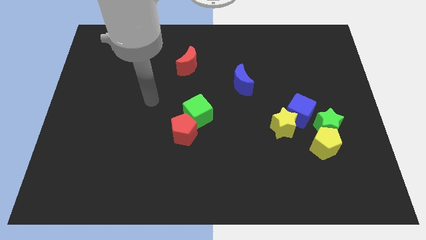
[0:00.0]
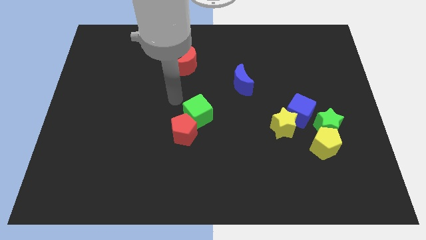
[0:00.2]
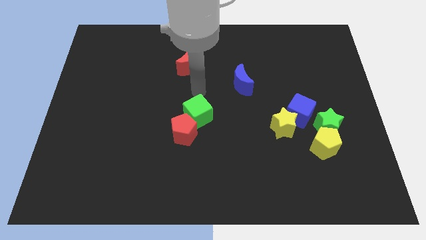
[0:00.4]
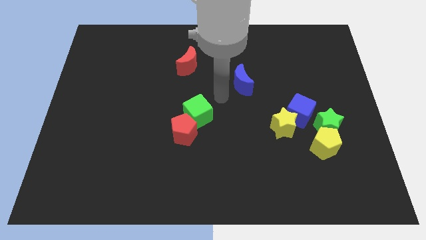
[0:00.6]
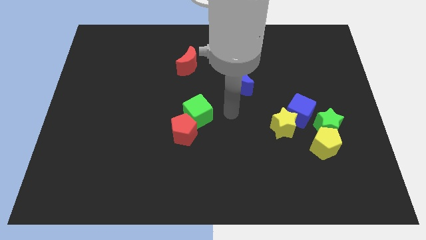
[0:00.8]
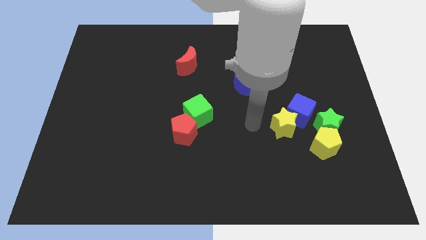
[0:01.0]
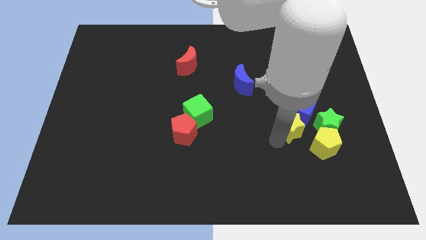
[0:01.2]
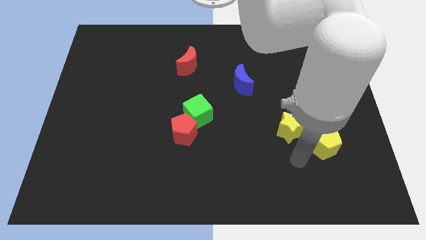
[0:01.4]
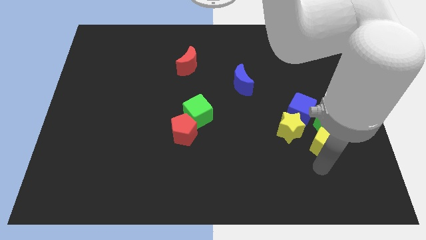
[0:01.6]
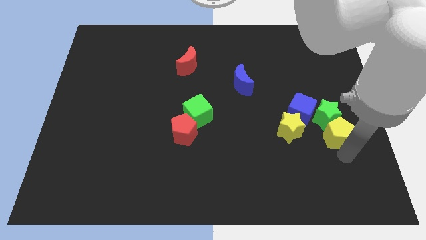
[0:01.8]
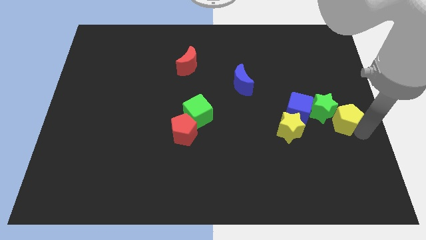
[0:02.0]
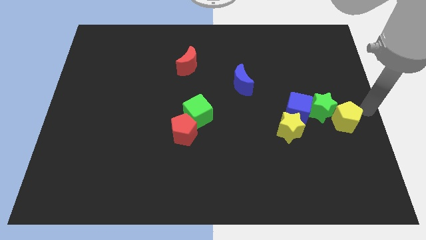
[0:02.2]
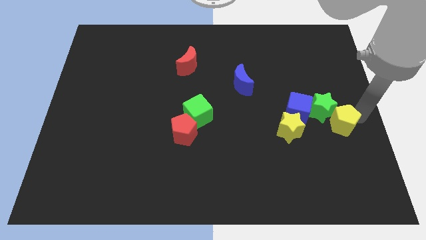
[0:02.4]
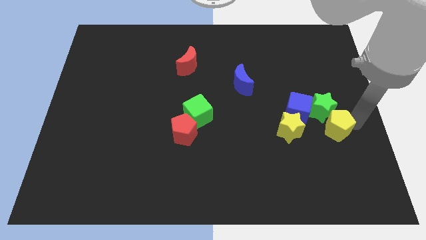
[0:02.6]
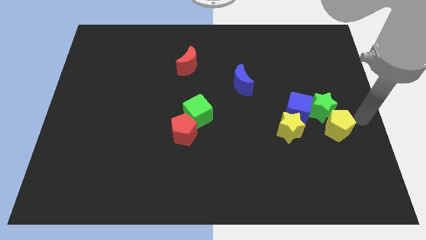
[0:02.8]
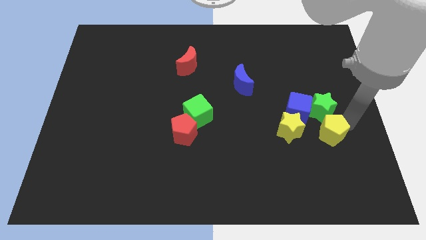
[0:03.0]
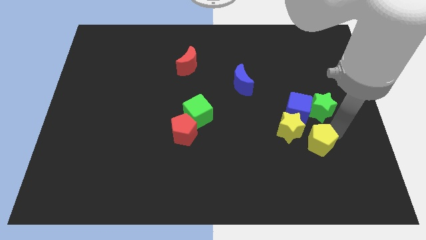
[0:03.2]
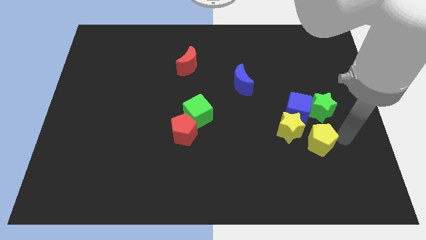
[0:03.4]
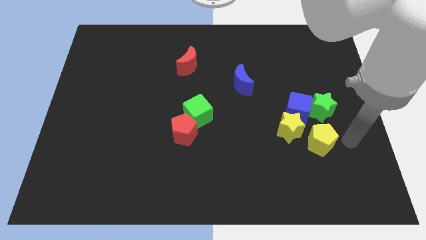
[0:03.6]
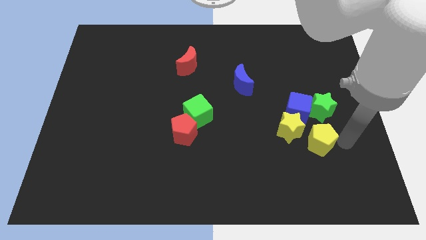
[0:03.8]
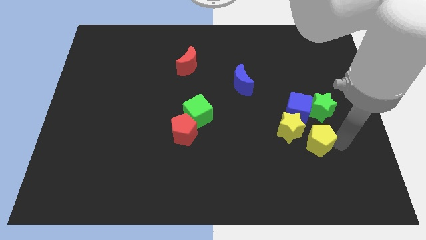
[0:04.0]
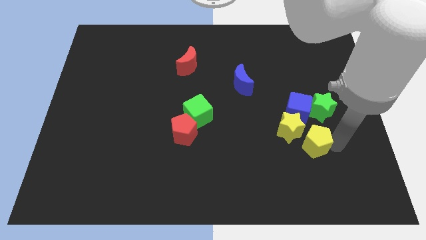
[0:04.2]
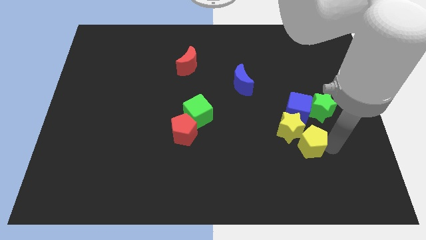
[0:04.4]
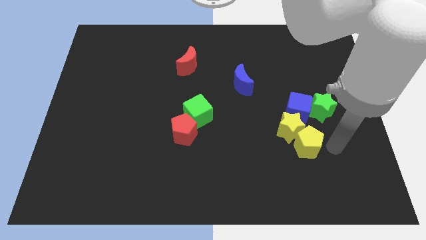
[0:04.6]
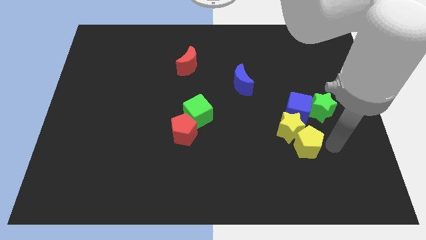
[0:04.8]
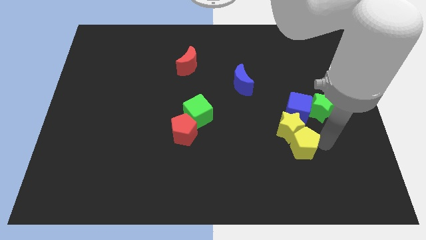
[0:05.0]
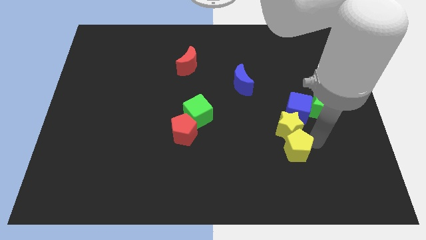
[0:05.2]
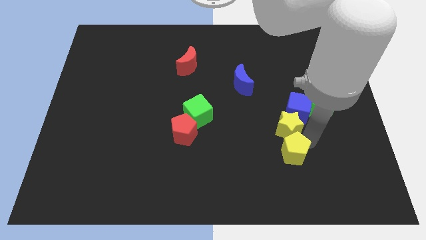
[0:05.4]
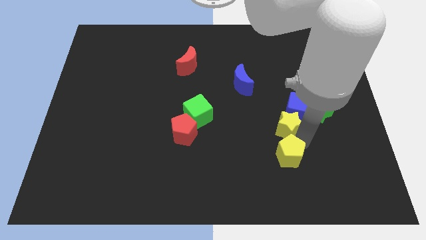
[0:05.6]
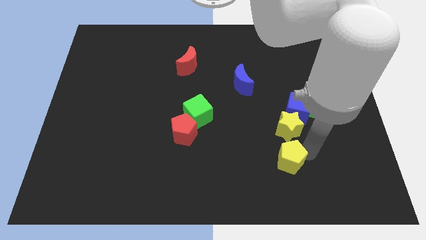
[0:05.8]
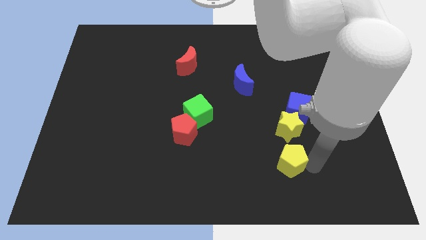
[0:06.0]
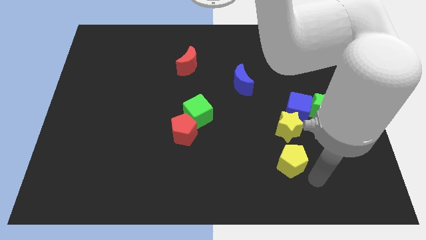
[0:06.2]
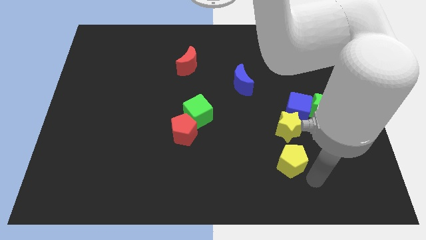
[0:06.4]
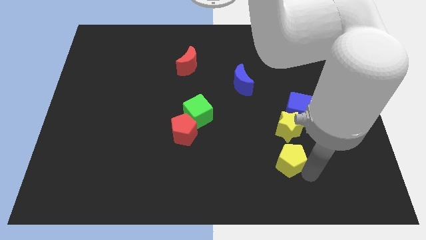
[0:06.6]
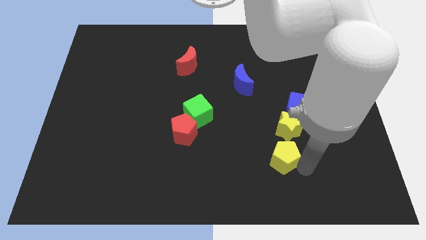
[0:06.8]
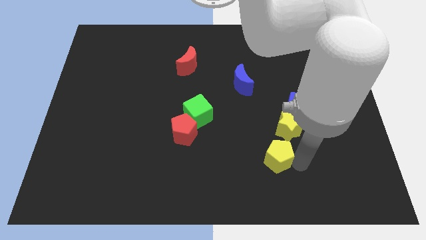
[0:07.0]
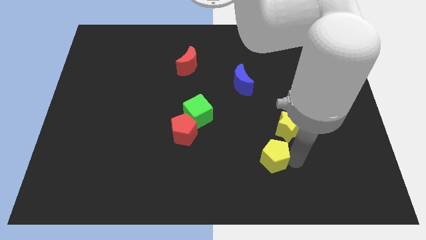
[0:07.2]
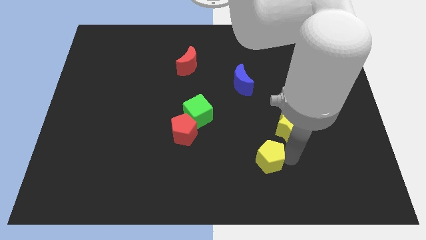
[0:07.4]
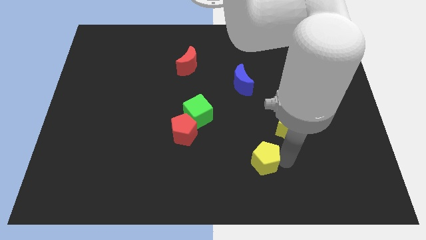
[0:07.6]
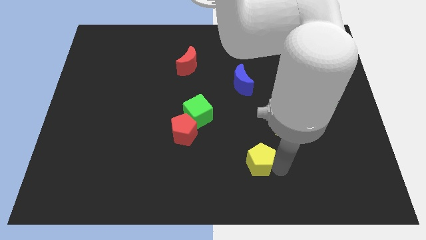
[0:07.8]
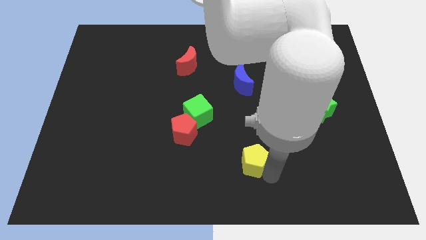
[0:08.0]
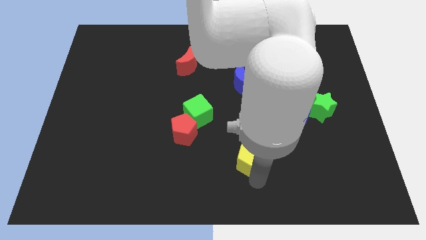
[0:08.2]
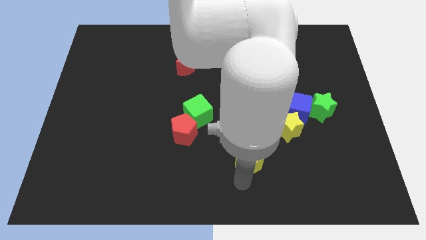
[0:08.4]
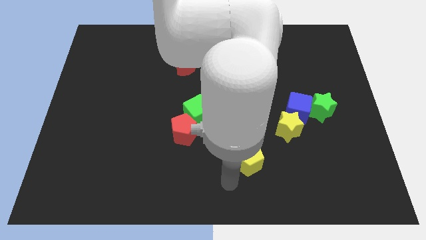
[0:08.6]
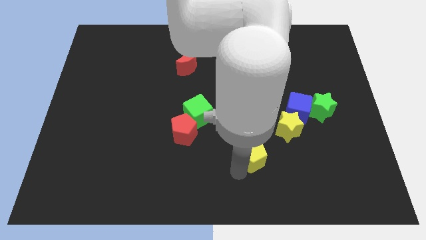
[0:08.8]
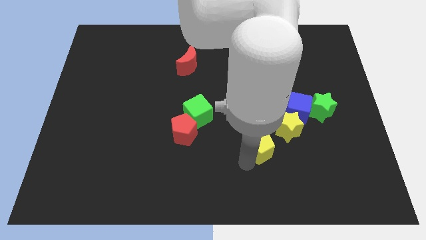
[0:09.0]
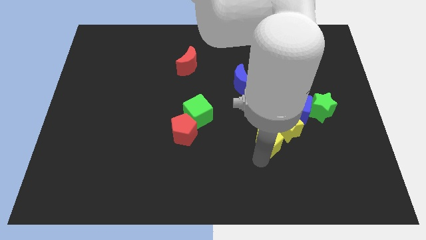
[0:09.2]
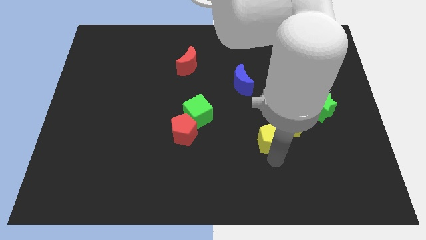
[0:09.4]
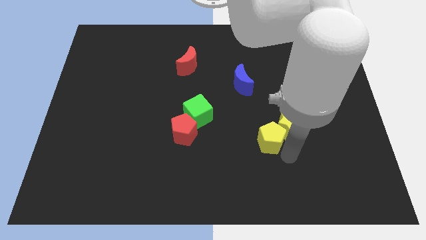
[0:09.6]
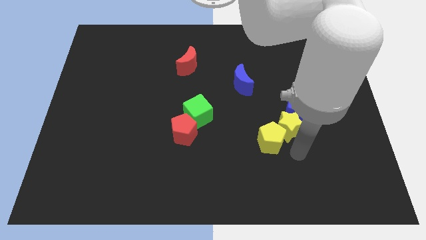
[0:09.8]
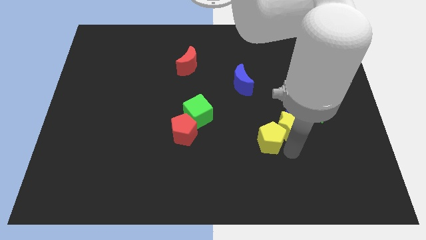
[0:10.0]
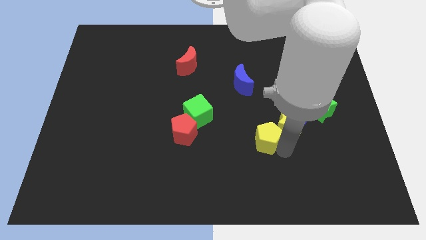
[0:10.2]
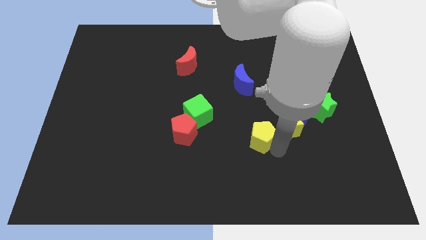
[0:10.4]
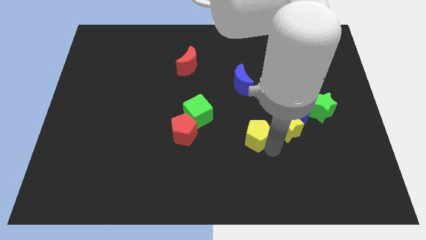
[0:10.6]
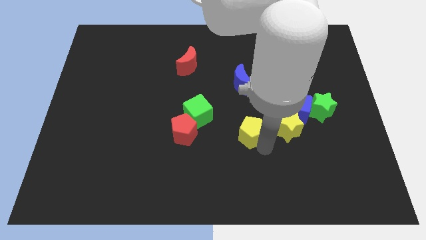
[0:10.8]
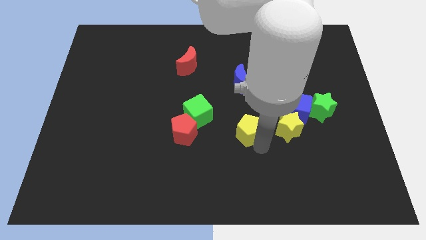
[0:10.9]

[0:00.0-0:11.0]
slide the yellow pentagon to the center of the board
